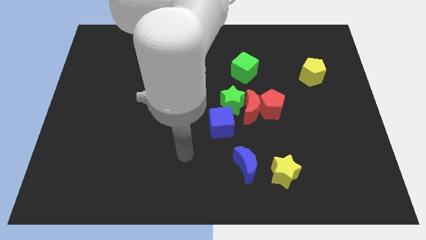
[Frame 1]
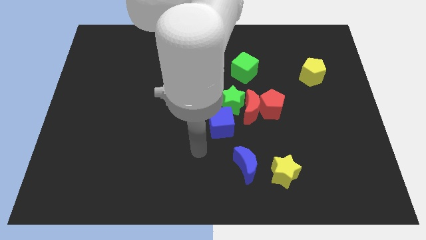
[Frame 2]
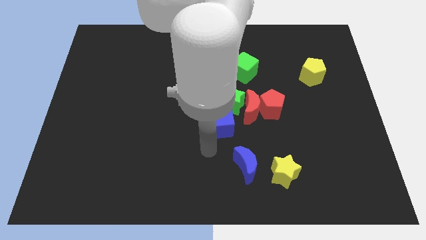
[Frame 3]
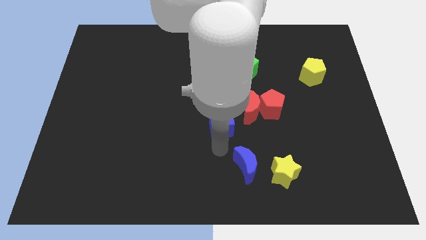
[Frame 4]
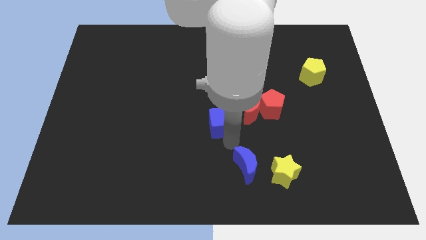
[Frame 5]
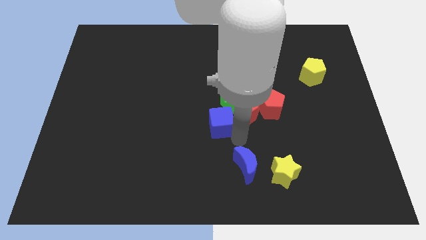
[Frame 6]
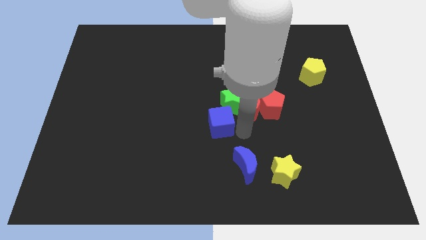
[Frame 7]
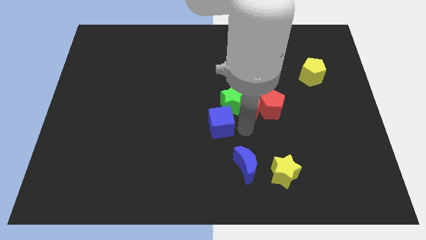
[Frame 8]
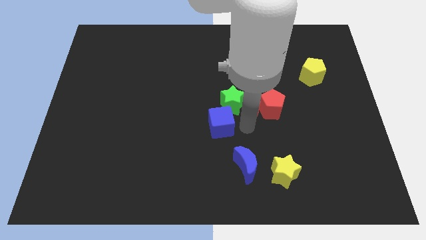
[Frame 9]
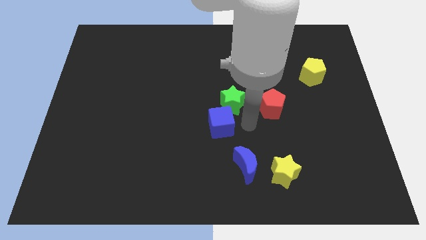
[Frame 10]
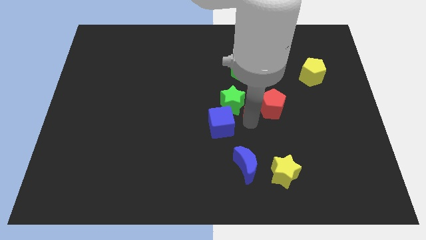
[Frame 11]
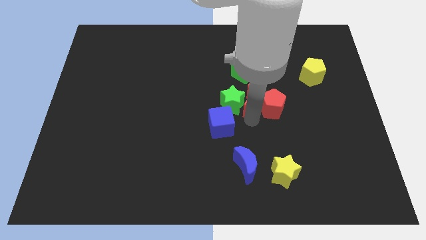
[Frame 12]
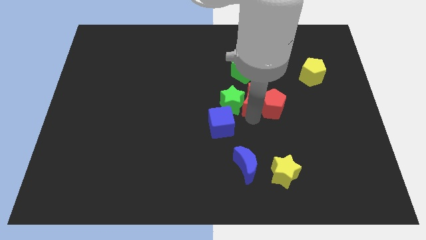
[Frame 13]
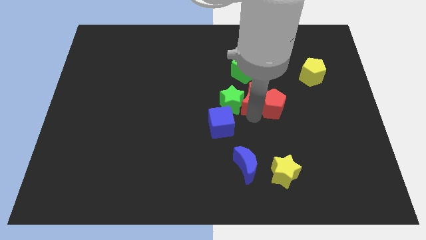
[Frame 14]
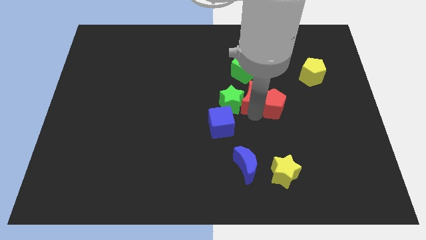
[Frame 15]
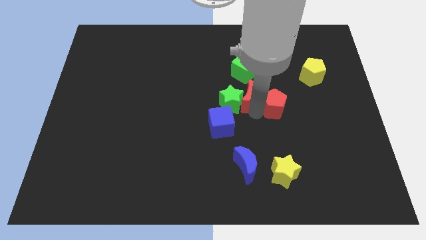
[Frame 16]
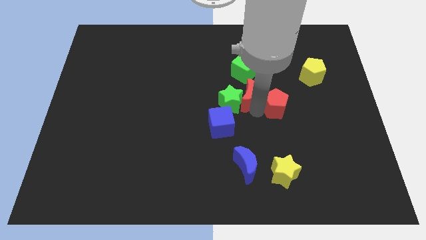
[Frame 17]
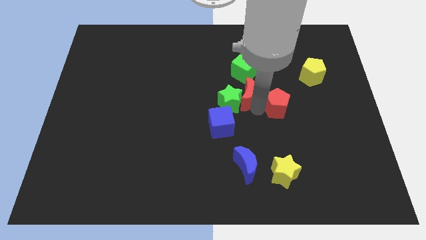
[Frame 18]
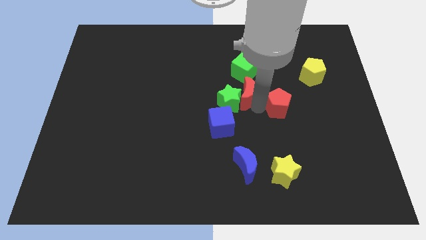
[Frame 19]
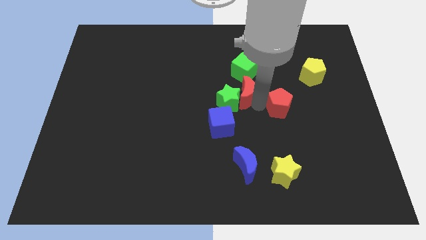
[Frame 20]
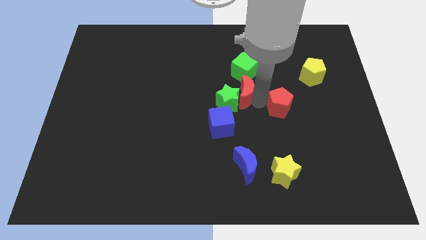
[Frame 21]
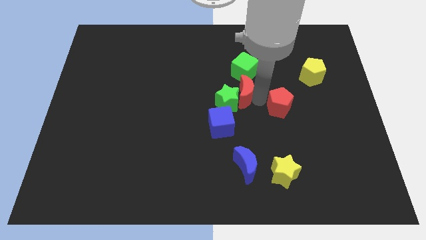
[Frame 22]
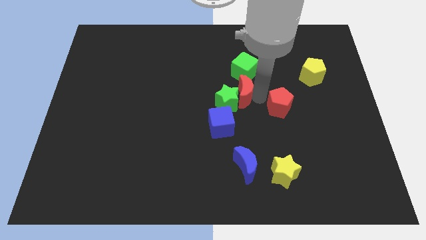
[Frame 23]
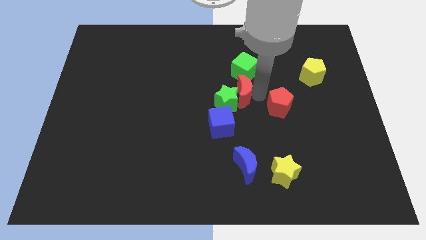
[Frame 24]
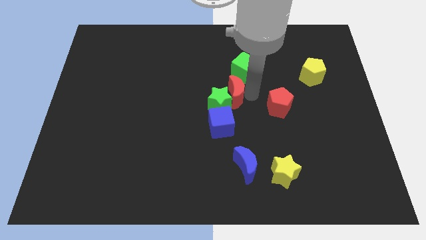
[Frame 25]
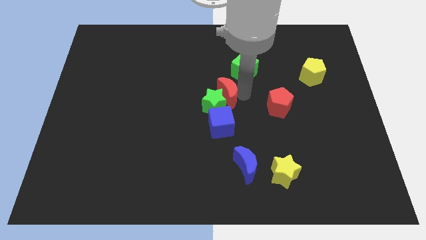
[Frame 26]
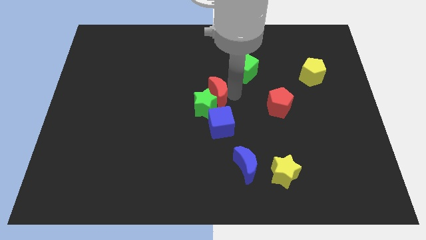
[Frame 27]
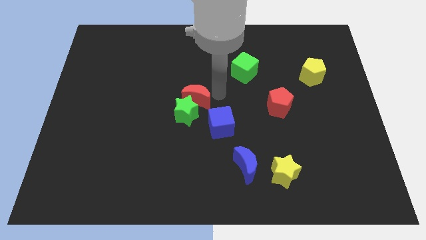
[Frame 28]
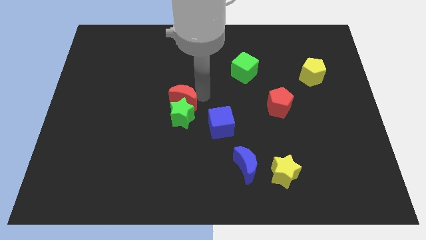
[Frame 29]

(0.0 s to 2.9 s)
move the red moon away from the group of blocks

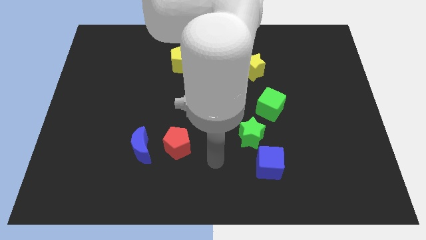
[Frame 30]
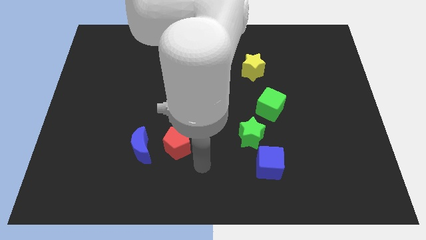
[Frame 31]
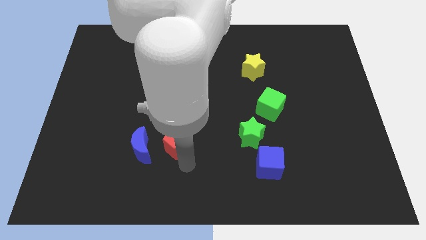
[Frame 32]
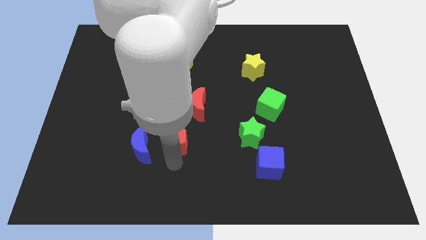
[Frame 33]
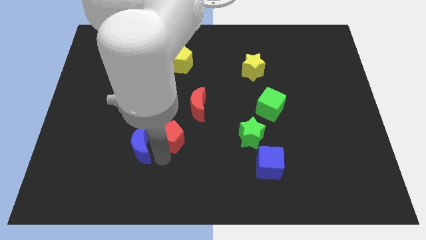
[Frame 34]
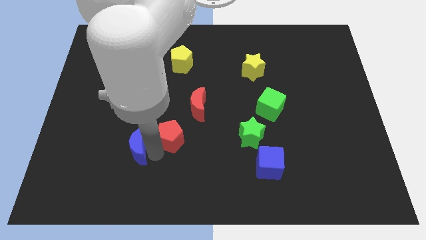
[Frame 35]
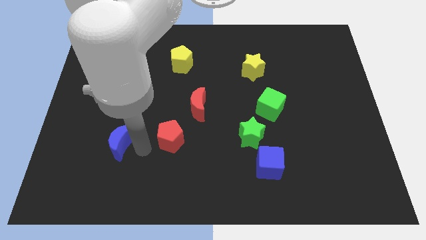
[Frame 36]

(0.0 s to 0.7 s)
move the red pentagon away from the blue moon

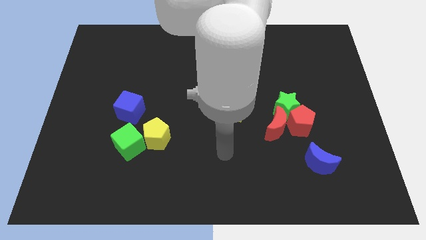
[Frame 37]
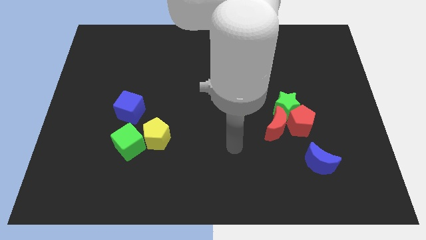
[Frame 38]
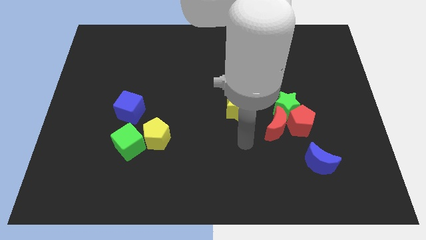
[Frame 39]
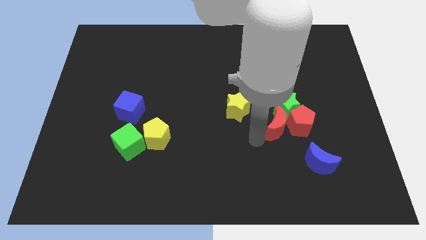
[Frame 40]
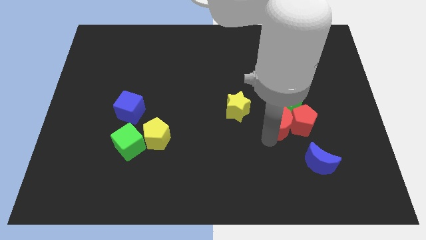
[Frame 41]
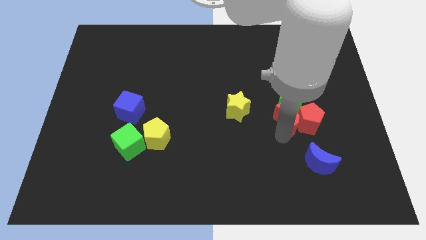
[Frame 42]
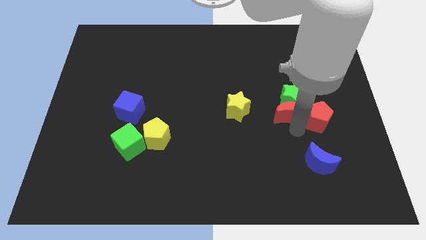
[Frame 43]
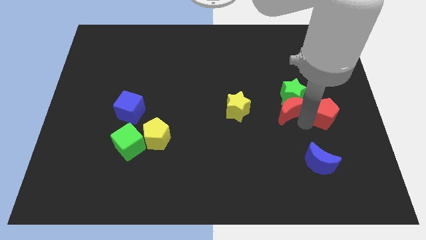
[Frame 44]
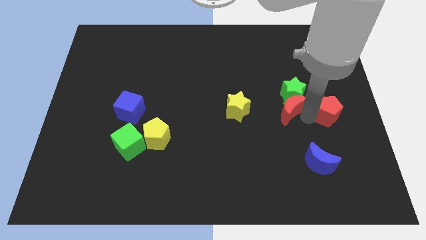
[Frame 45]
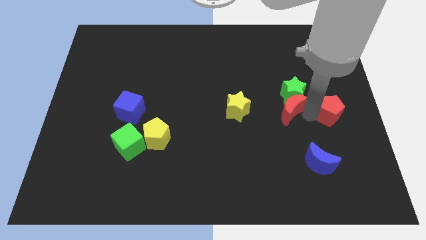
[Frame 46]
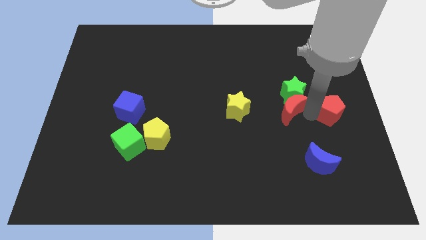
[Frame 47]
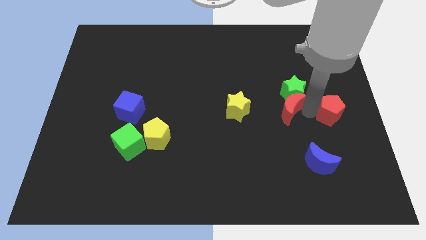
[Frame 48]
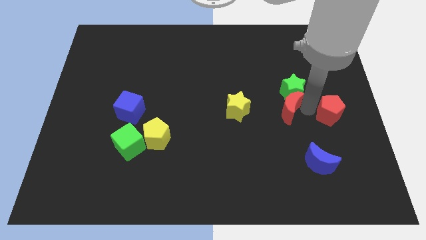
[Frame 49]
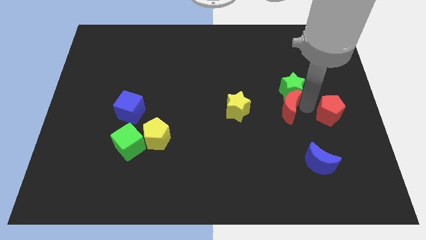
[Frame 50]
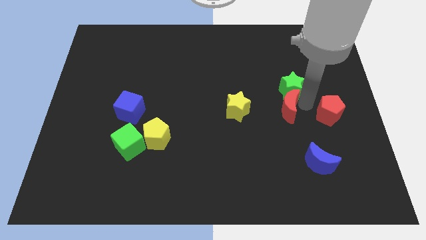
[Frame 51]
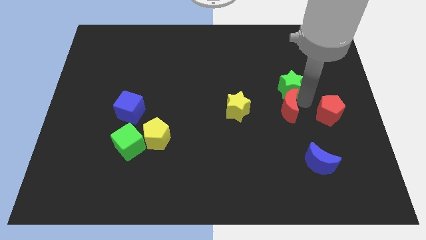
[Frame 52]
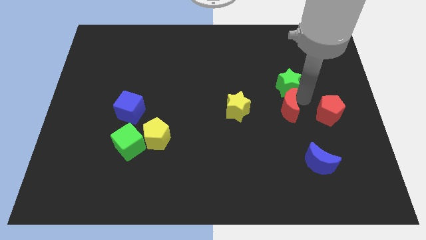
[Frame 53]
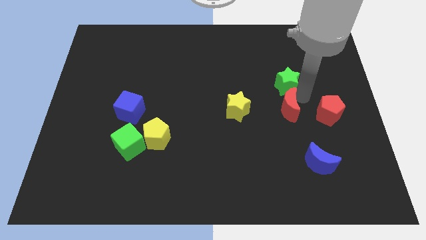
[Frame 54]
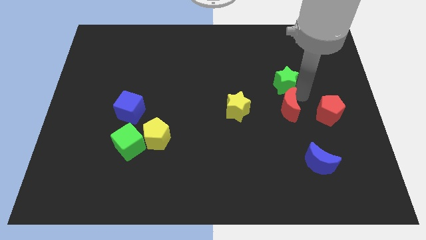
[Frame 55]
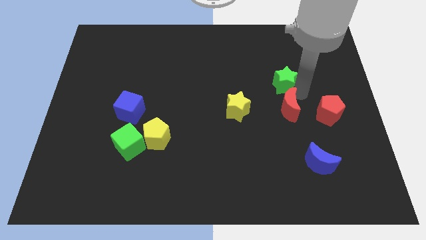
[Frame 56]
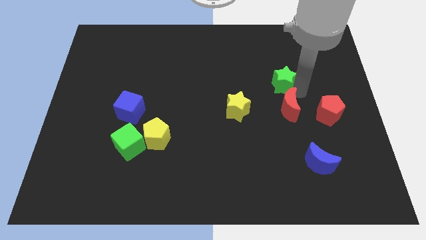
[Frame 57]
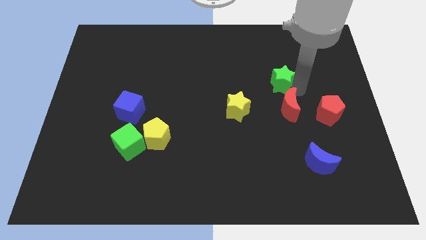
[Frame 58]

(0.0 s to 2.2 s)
pull the green star apart from the red pentagon and red moon

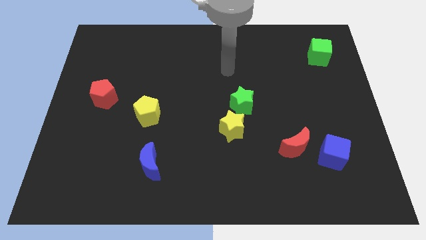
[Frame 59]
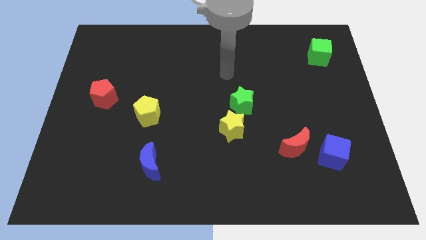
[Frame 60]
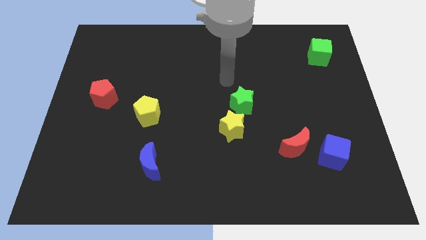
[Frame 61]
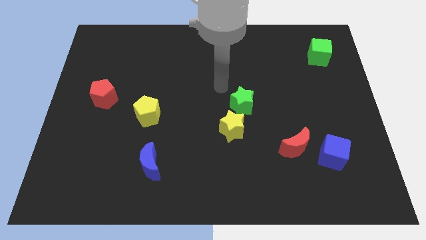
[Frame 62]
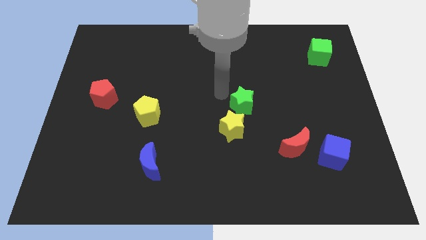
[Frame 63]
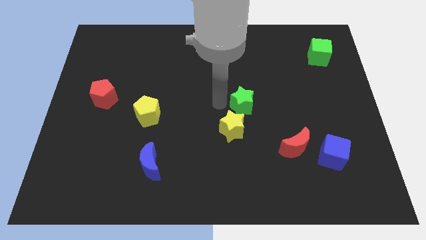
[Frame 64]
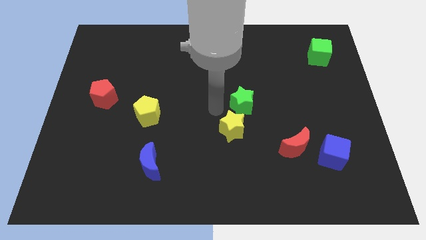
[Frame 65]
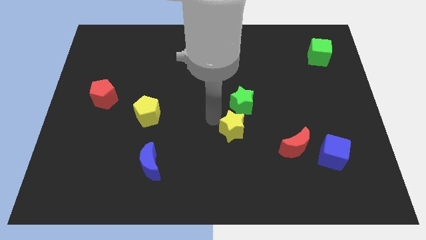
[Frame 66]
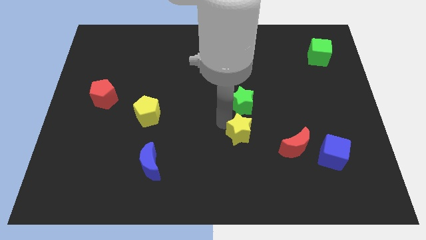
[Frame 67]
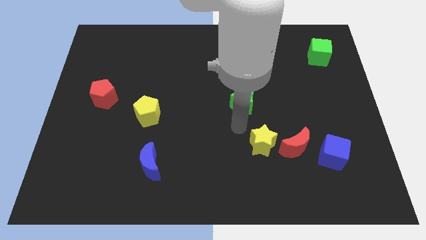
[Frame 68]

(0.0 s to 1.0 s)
pull the green star apart from the yellow star

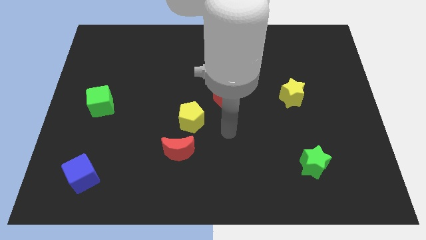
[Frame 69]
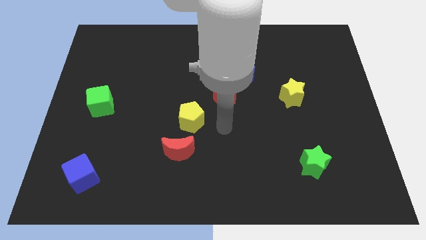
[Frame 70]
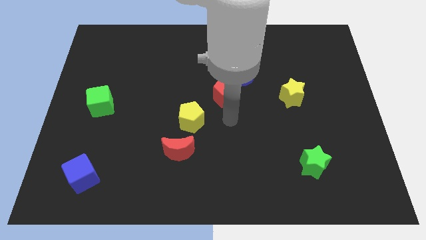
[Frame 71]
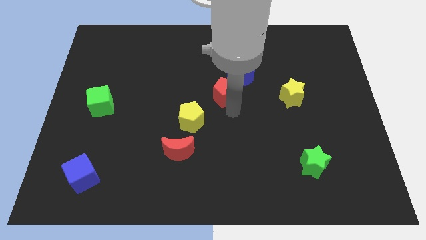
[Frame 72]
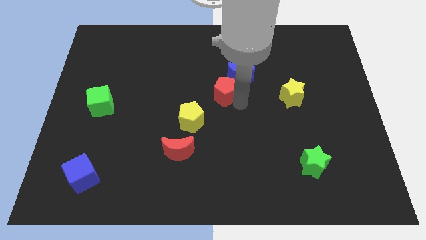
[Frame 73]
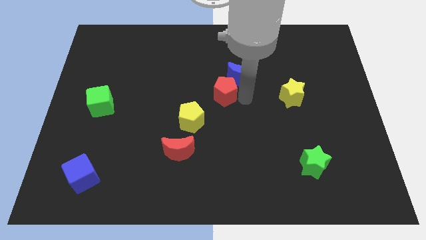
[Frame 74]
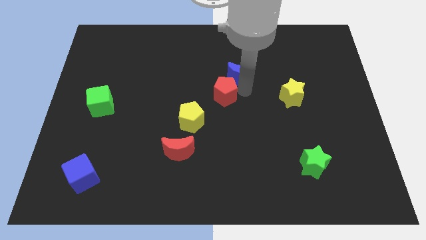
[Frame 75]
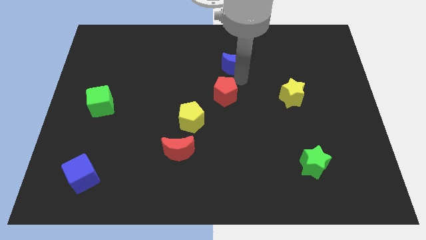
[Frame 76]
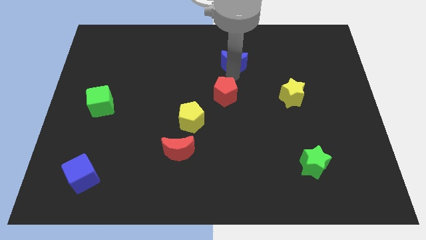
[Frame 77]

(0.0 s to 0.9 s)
pull the red pentagon apart from the blue moon

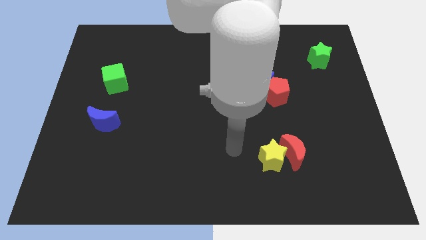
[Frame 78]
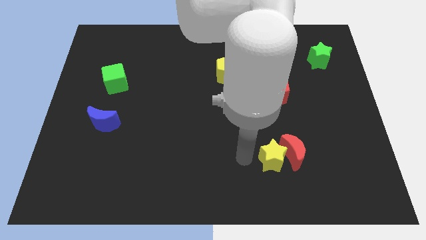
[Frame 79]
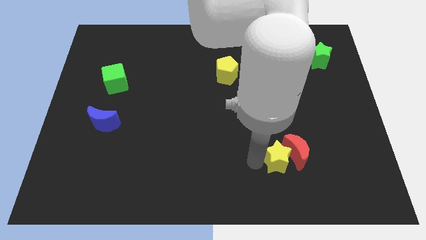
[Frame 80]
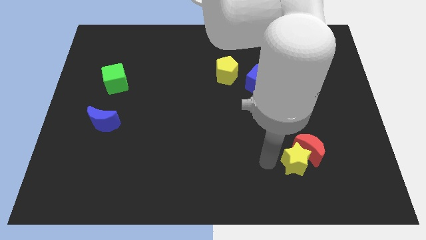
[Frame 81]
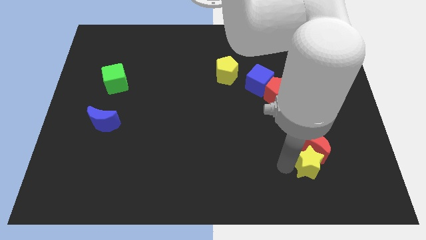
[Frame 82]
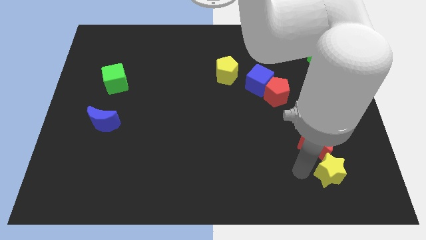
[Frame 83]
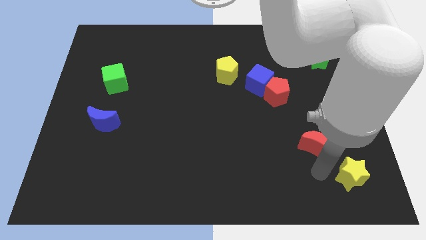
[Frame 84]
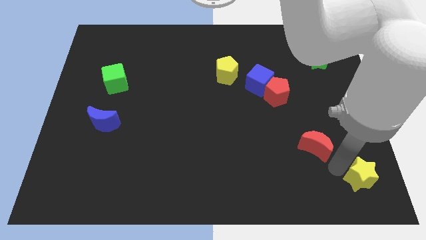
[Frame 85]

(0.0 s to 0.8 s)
move the red moon away from the yellow star

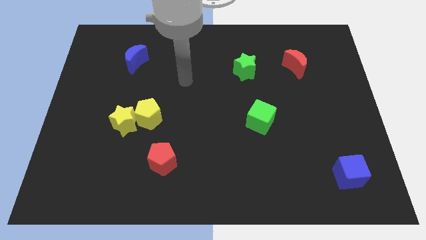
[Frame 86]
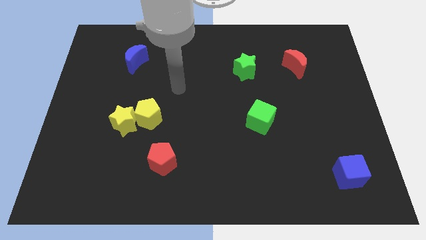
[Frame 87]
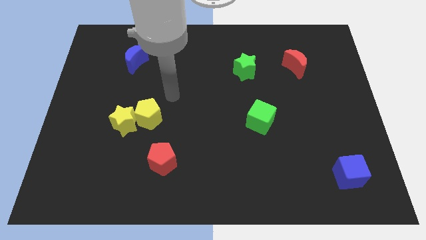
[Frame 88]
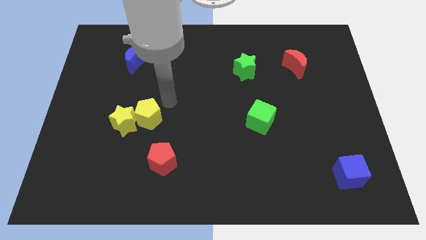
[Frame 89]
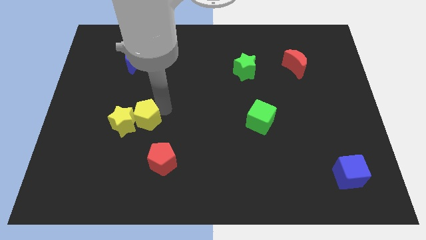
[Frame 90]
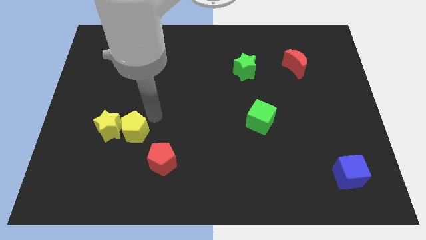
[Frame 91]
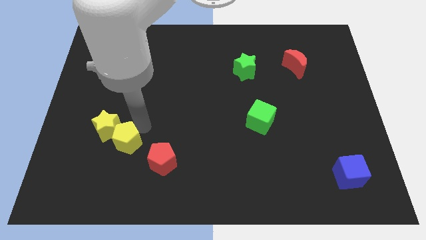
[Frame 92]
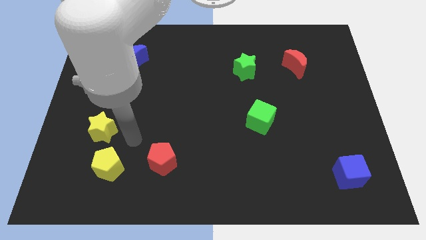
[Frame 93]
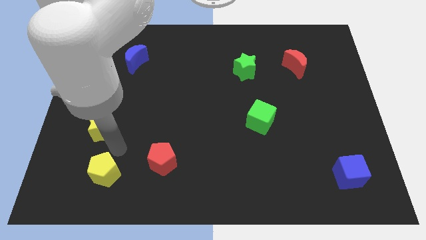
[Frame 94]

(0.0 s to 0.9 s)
move the yellow star away from the yellow pentagon
